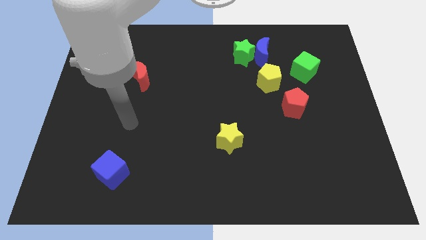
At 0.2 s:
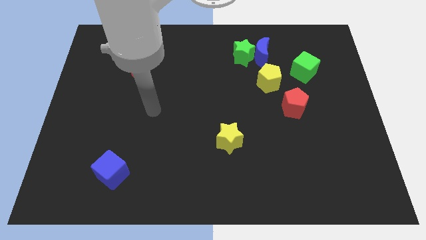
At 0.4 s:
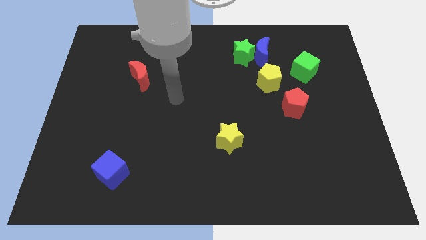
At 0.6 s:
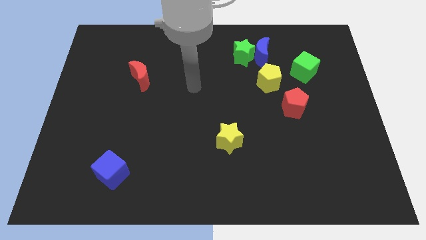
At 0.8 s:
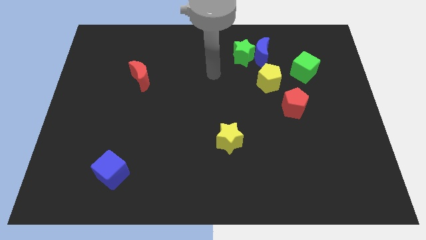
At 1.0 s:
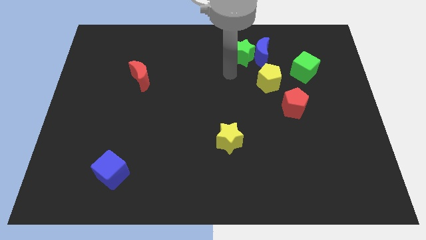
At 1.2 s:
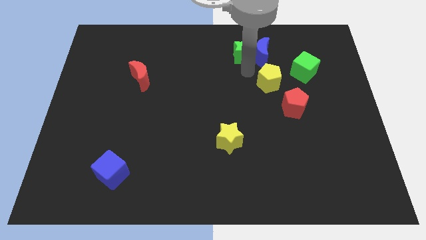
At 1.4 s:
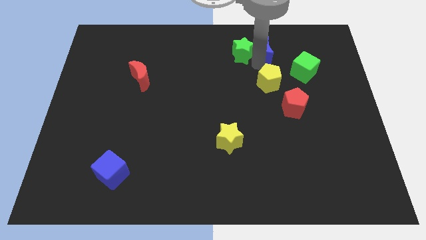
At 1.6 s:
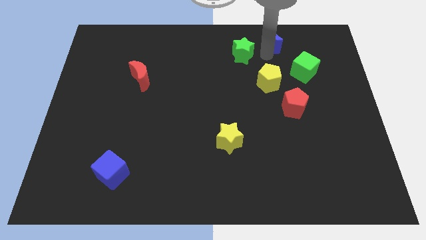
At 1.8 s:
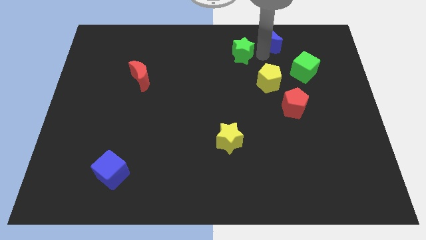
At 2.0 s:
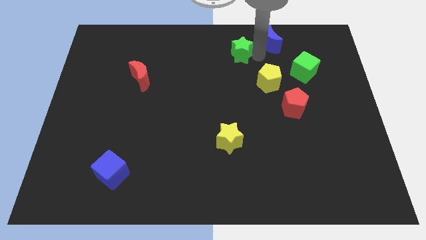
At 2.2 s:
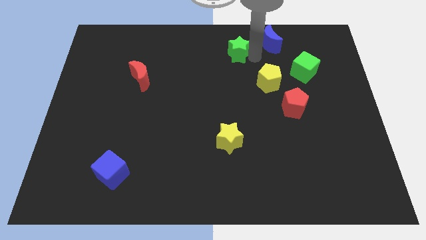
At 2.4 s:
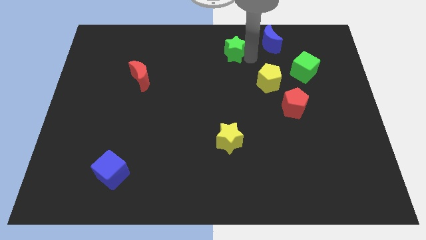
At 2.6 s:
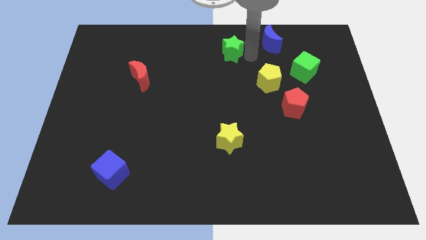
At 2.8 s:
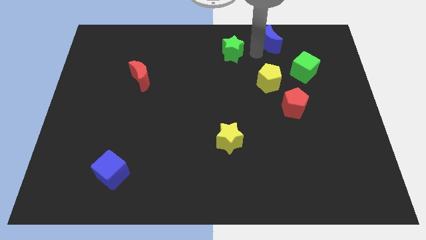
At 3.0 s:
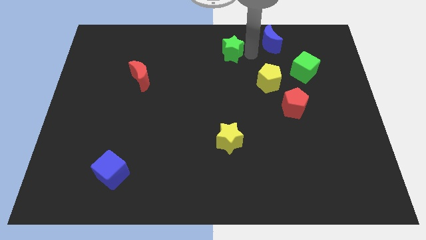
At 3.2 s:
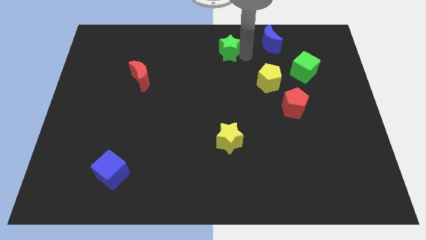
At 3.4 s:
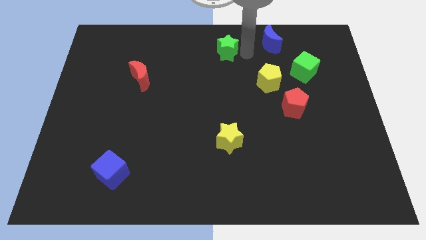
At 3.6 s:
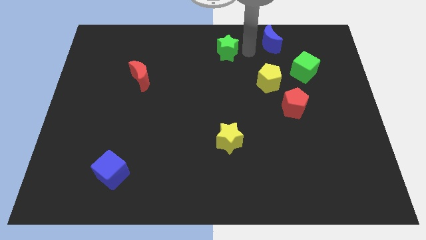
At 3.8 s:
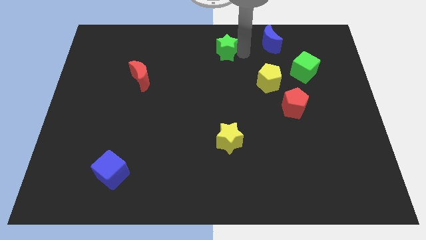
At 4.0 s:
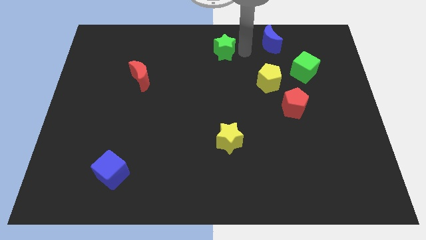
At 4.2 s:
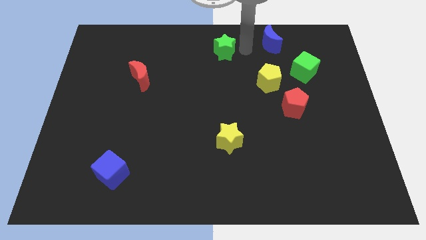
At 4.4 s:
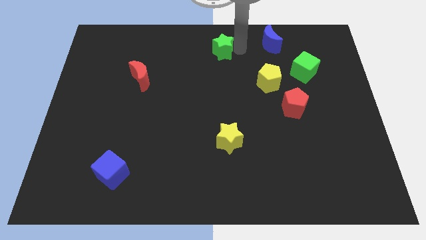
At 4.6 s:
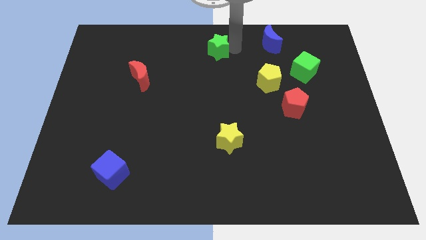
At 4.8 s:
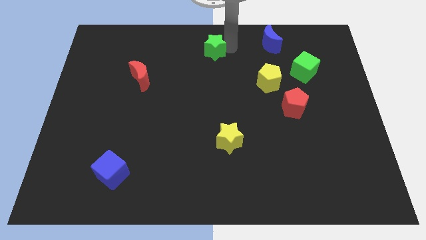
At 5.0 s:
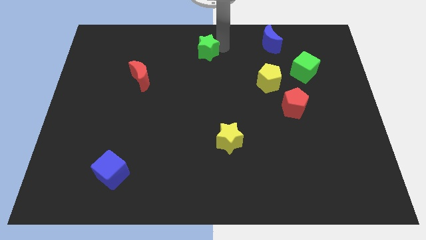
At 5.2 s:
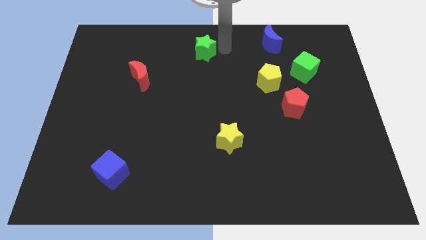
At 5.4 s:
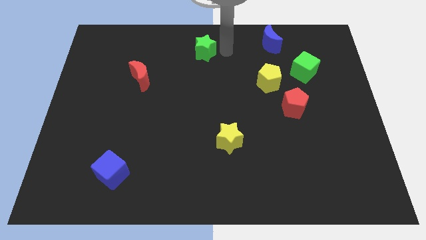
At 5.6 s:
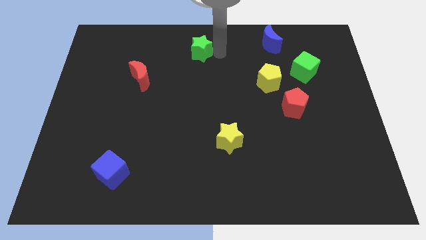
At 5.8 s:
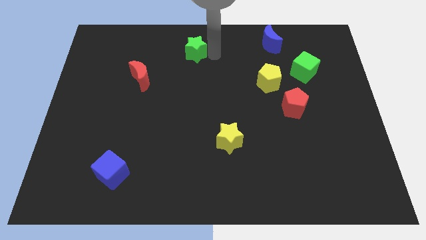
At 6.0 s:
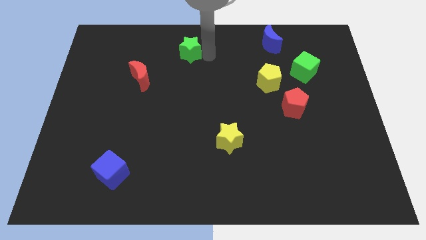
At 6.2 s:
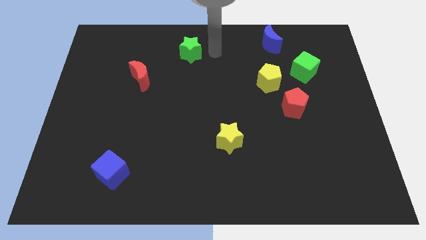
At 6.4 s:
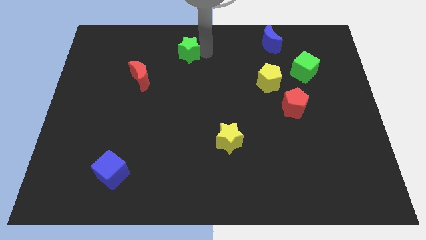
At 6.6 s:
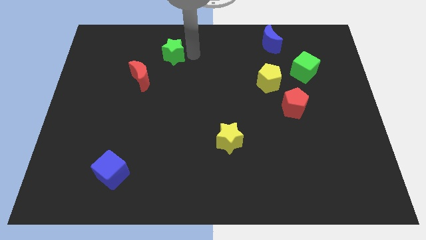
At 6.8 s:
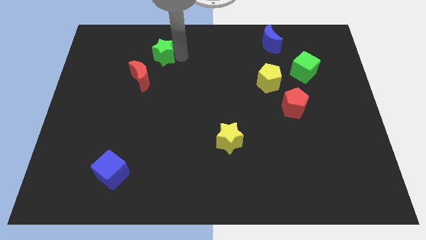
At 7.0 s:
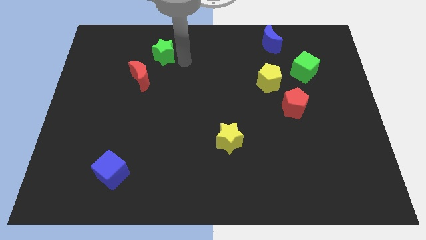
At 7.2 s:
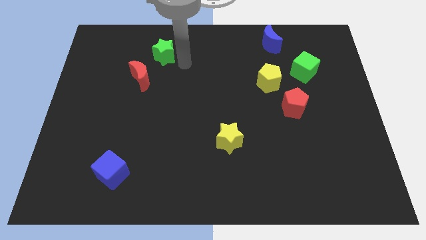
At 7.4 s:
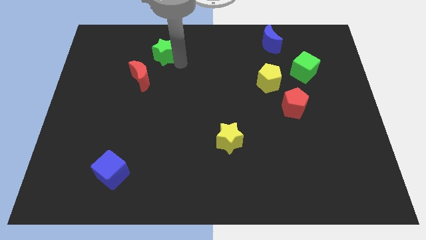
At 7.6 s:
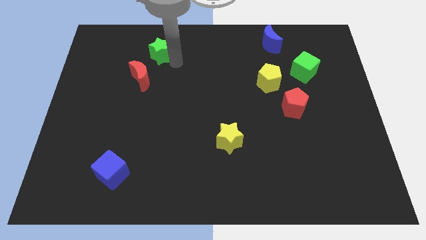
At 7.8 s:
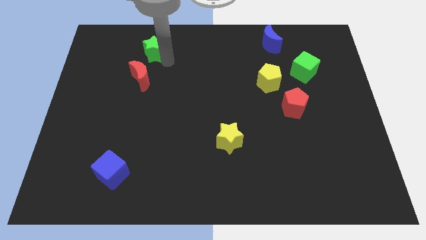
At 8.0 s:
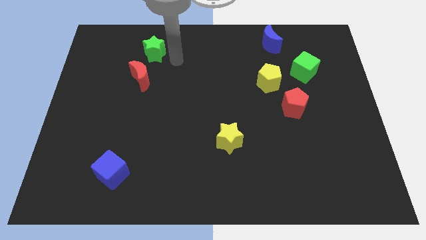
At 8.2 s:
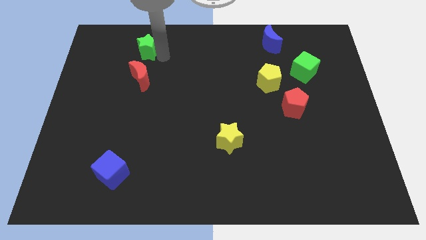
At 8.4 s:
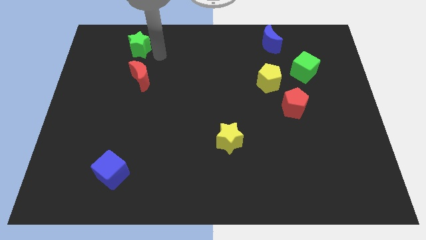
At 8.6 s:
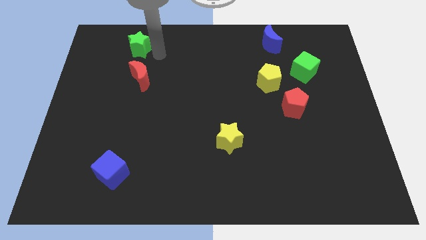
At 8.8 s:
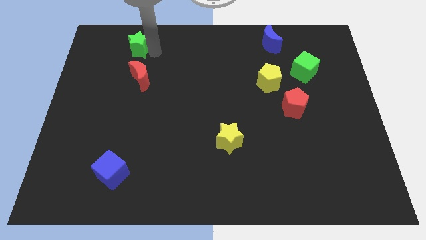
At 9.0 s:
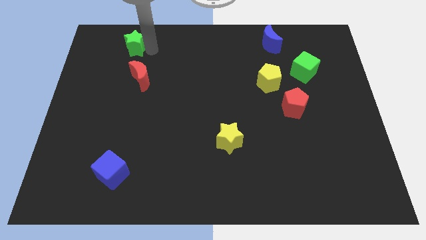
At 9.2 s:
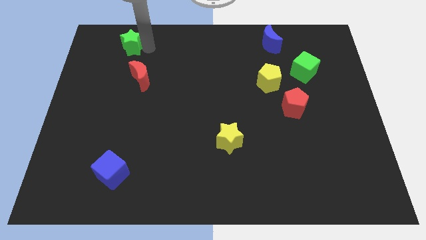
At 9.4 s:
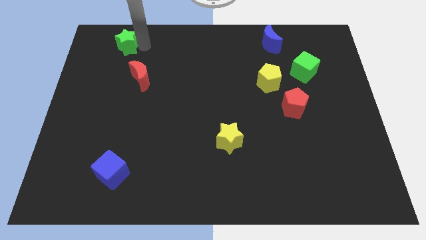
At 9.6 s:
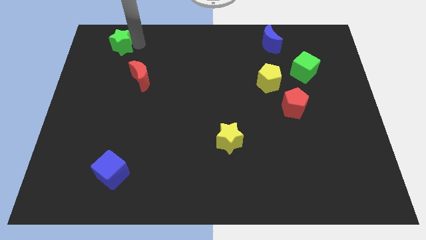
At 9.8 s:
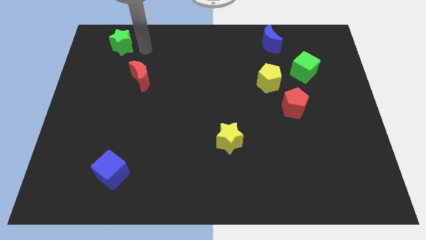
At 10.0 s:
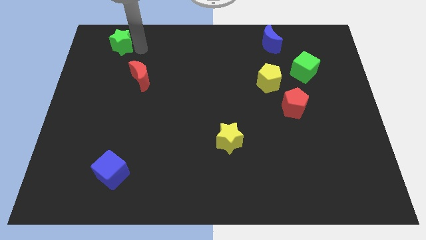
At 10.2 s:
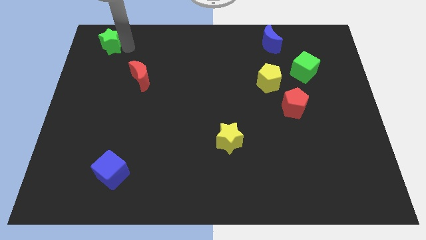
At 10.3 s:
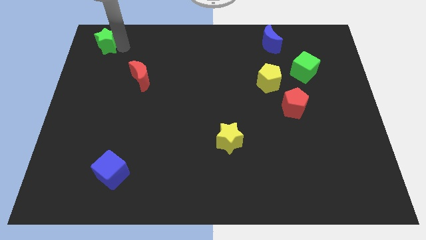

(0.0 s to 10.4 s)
put the green star to the top left of the board

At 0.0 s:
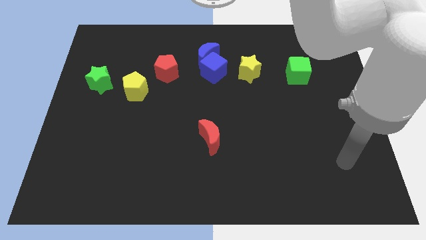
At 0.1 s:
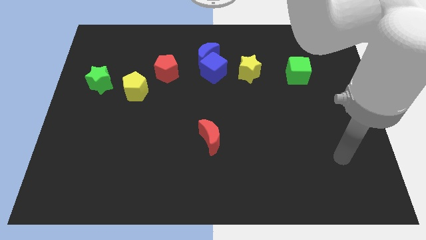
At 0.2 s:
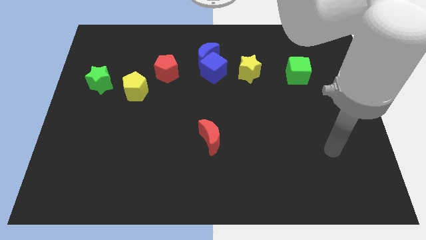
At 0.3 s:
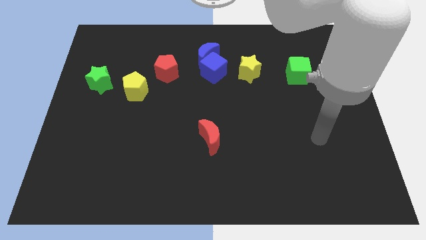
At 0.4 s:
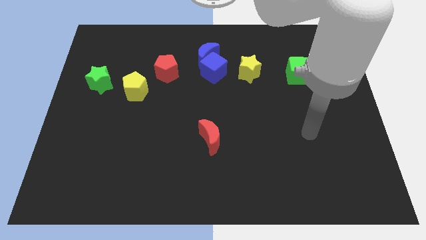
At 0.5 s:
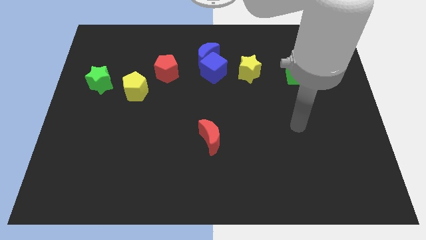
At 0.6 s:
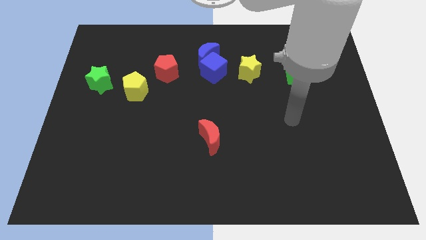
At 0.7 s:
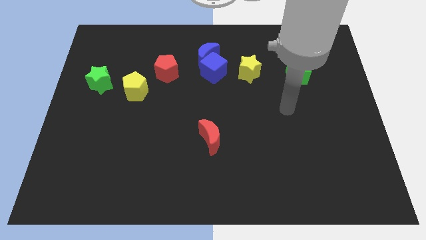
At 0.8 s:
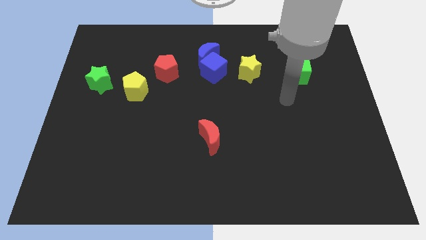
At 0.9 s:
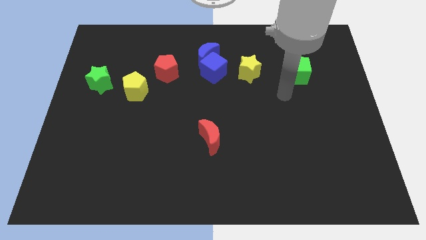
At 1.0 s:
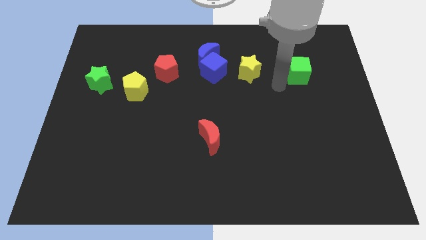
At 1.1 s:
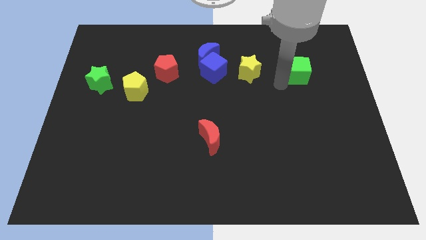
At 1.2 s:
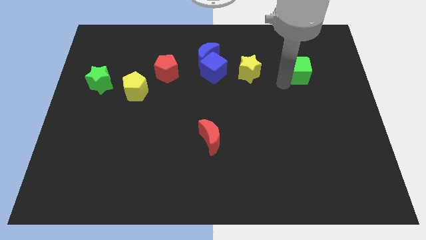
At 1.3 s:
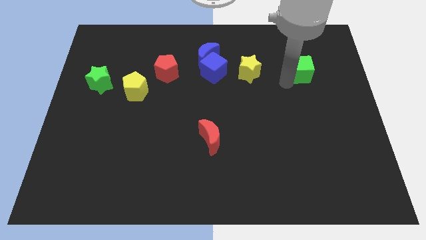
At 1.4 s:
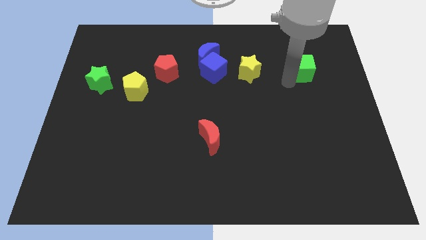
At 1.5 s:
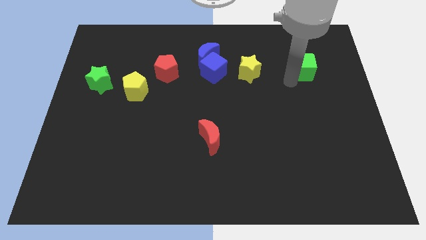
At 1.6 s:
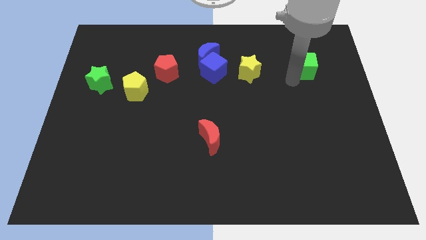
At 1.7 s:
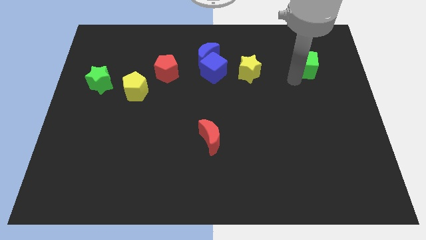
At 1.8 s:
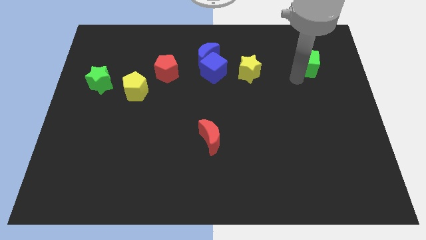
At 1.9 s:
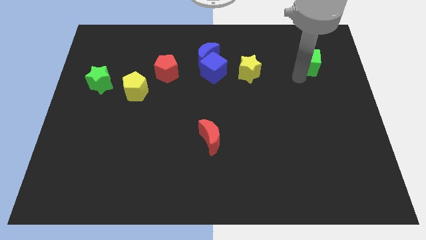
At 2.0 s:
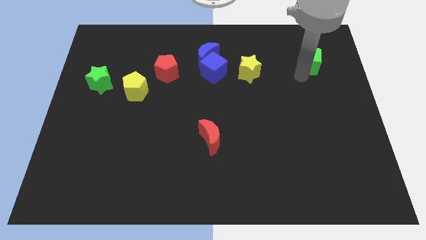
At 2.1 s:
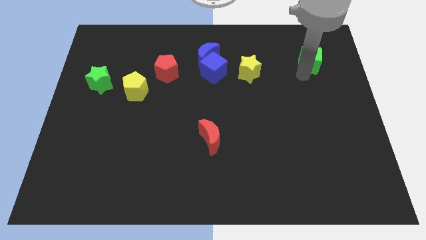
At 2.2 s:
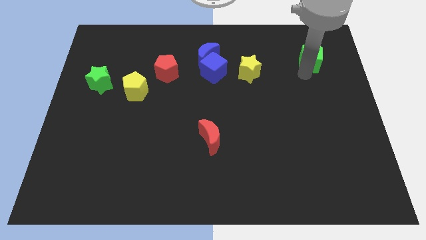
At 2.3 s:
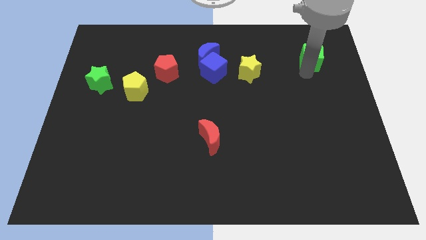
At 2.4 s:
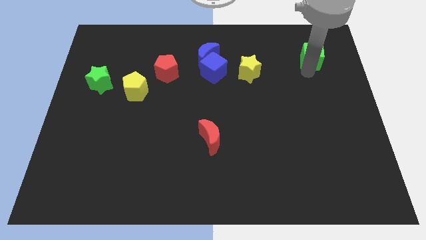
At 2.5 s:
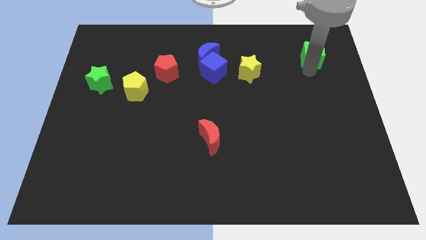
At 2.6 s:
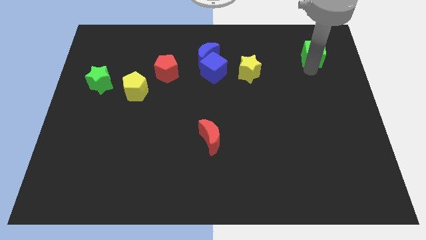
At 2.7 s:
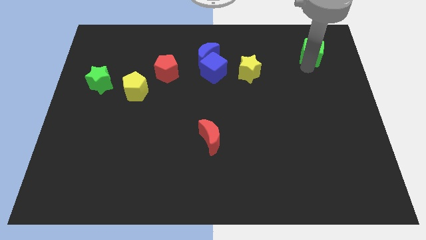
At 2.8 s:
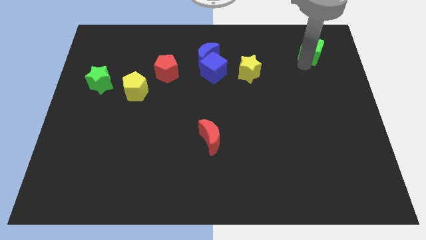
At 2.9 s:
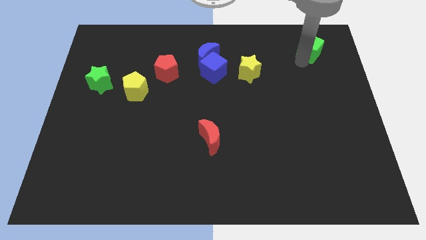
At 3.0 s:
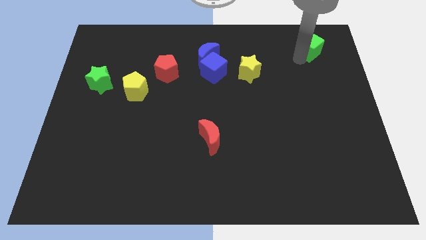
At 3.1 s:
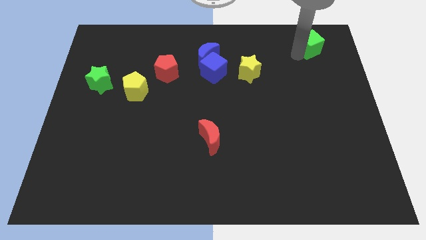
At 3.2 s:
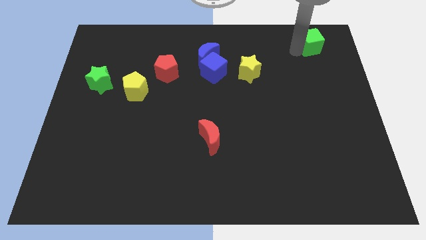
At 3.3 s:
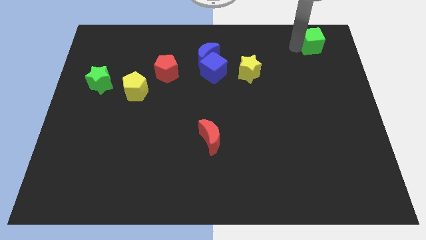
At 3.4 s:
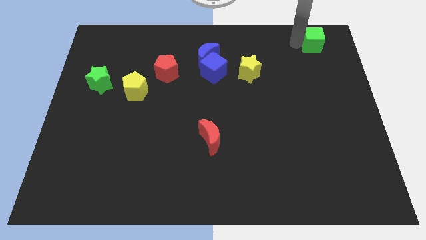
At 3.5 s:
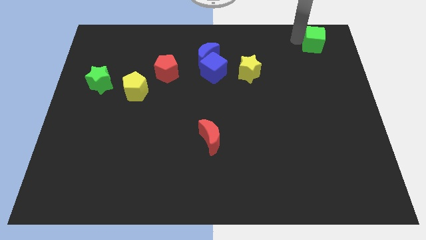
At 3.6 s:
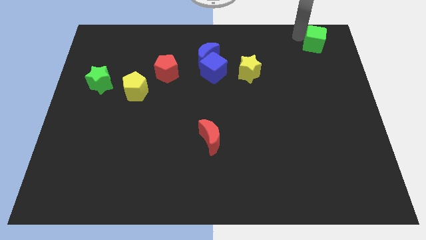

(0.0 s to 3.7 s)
move the green cube to the top right corner
